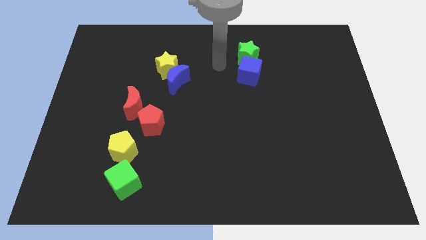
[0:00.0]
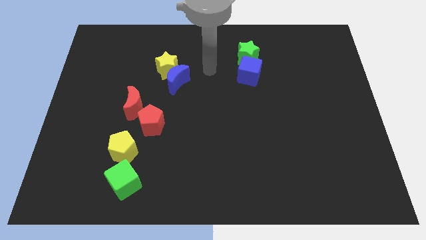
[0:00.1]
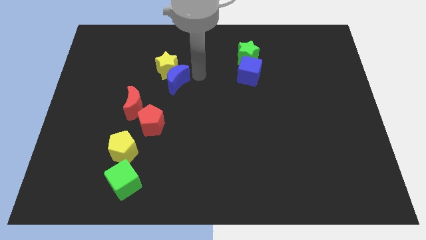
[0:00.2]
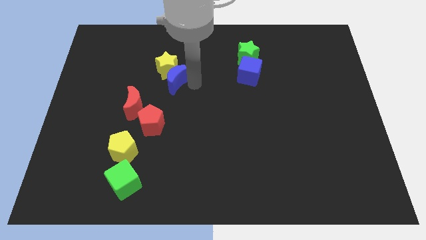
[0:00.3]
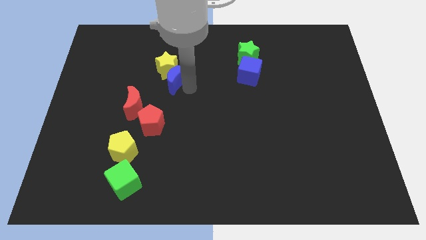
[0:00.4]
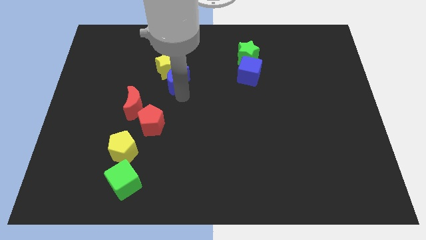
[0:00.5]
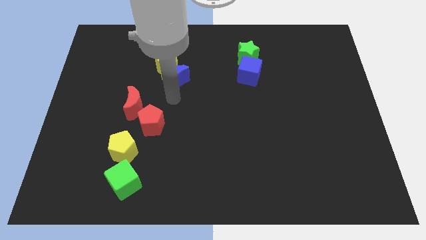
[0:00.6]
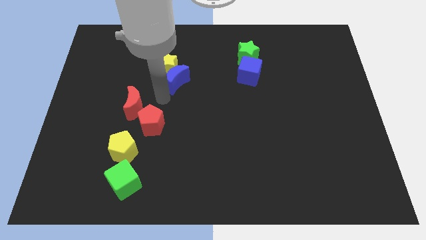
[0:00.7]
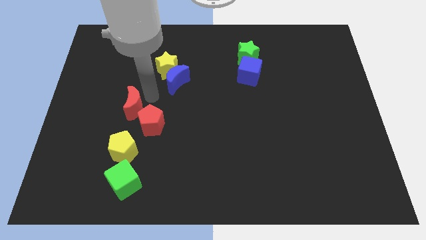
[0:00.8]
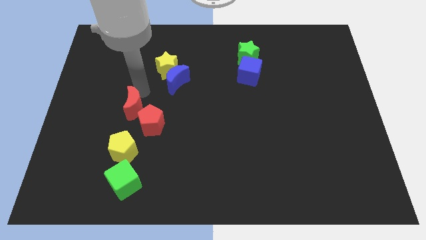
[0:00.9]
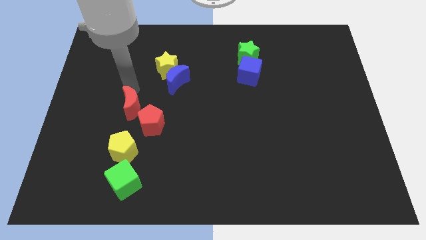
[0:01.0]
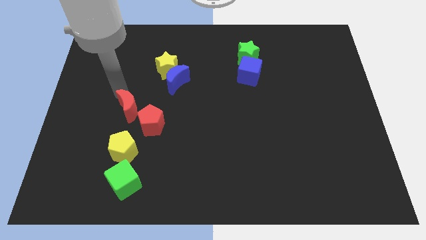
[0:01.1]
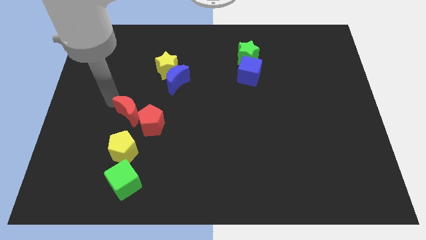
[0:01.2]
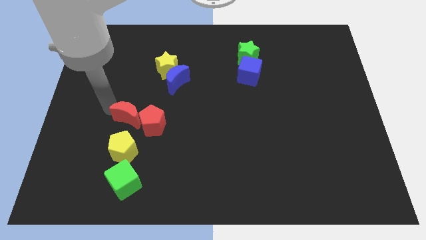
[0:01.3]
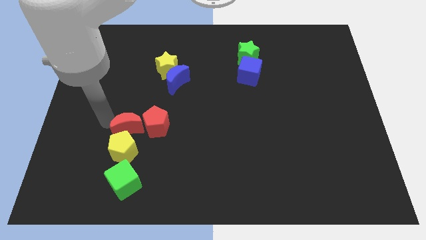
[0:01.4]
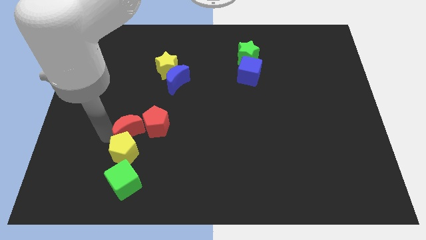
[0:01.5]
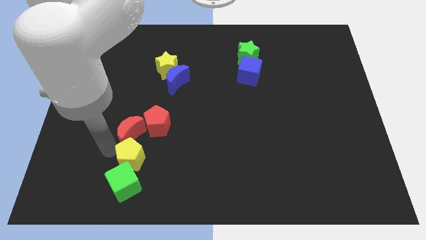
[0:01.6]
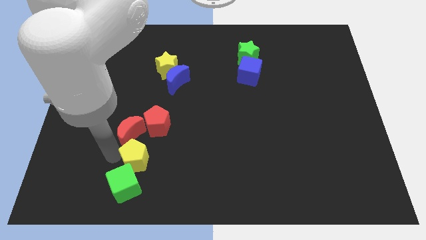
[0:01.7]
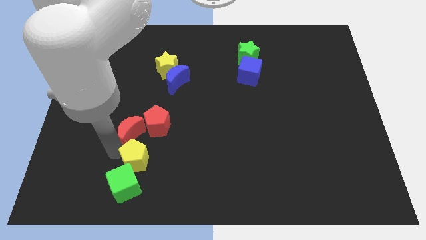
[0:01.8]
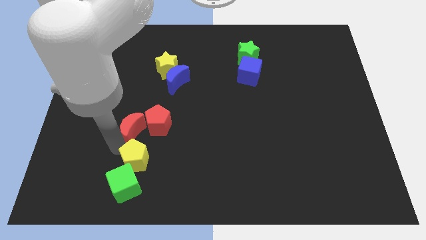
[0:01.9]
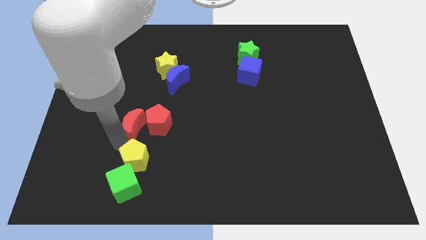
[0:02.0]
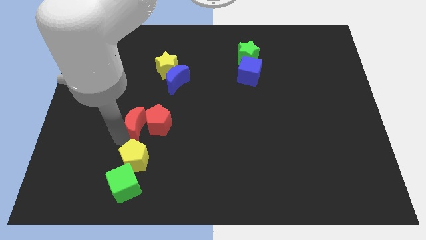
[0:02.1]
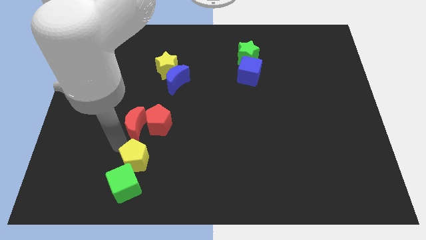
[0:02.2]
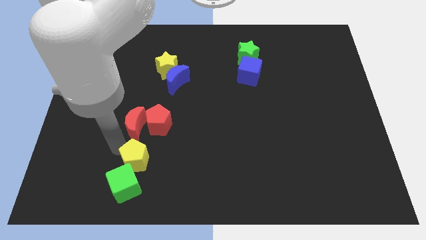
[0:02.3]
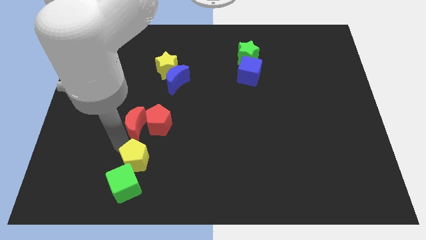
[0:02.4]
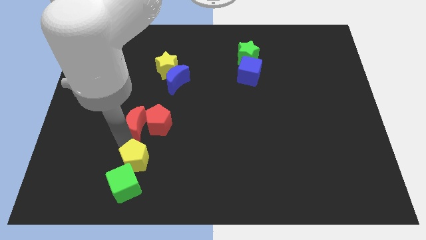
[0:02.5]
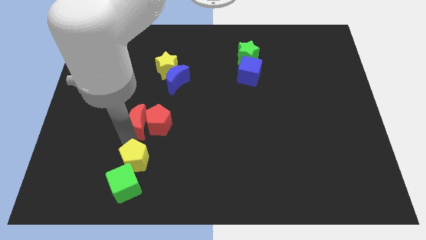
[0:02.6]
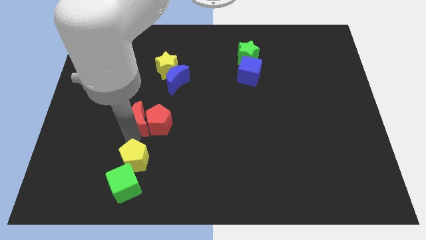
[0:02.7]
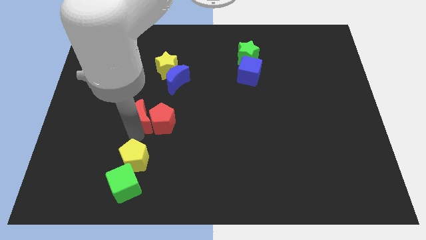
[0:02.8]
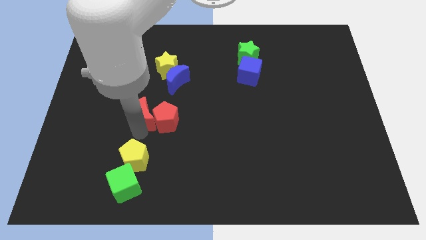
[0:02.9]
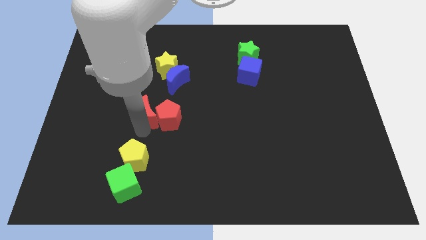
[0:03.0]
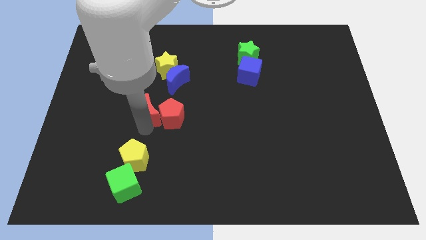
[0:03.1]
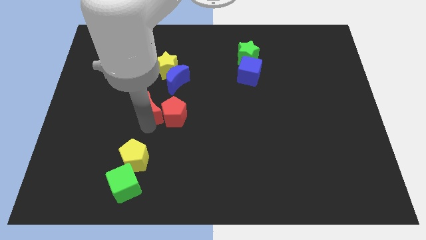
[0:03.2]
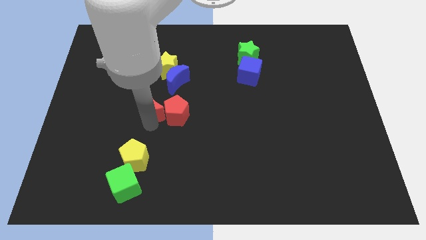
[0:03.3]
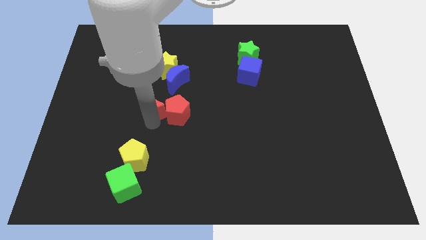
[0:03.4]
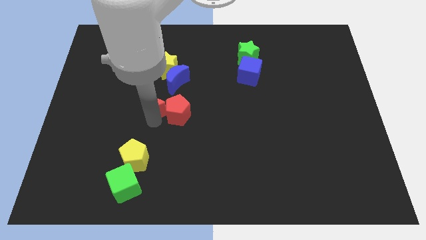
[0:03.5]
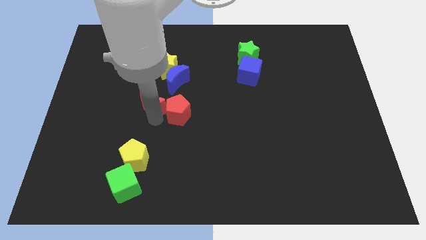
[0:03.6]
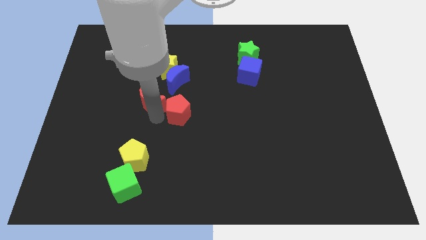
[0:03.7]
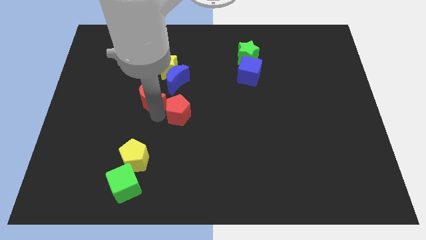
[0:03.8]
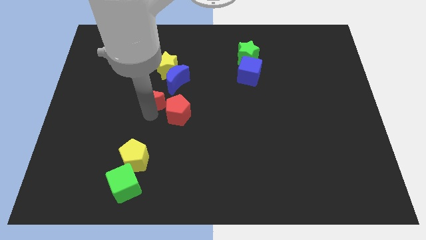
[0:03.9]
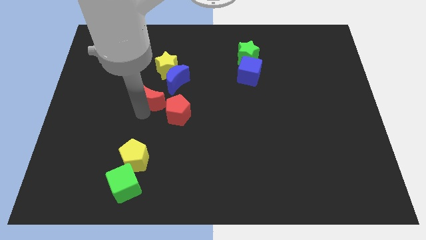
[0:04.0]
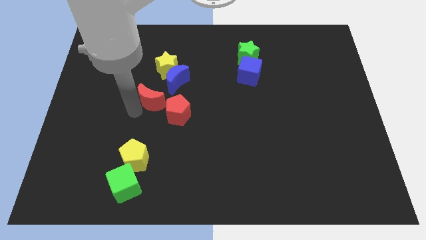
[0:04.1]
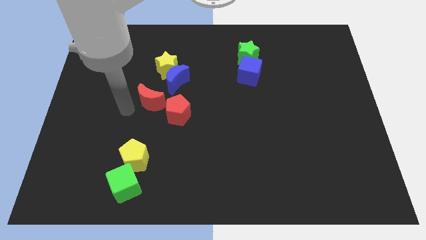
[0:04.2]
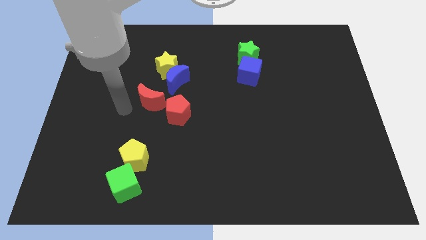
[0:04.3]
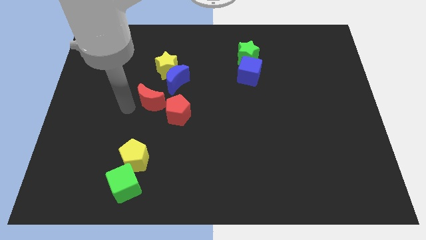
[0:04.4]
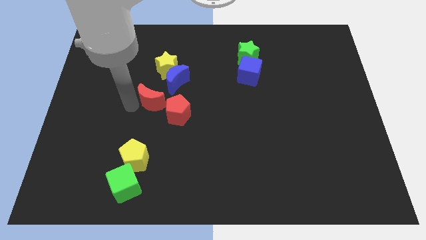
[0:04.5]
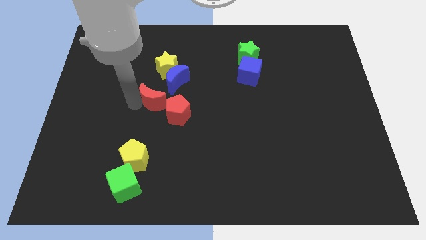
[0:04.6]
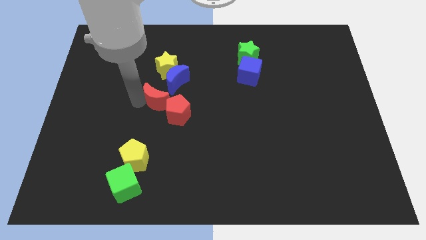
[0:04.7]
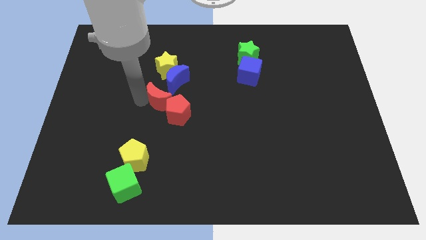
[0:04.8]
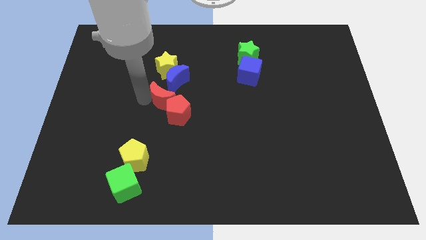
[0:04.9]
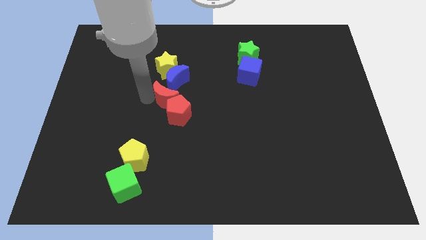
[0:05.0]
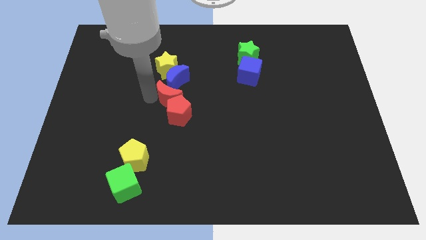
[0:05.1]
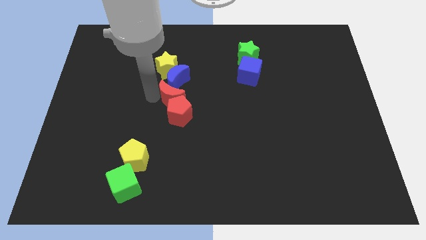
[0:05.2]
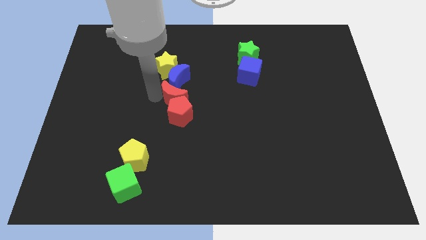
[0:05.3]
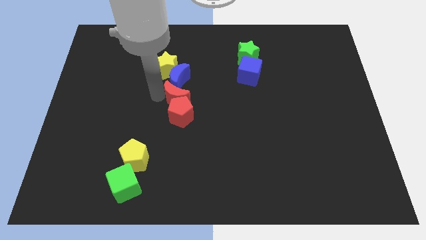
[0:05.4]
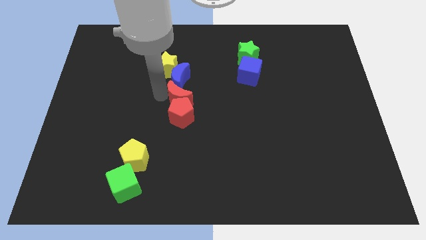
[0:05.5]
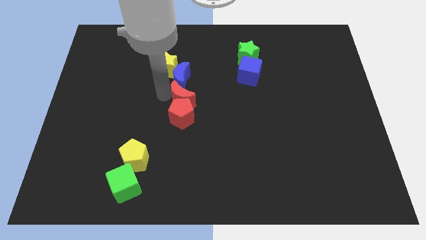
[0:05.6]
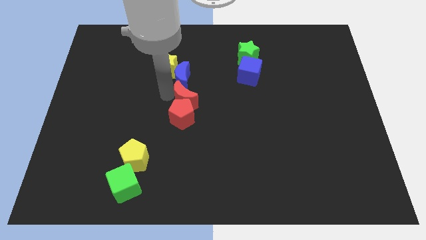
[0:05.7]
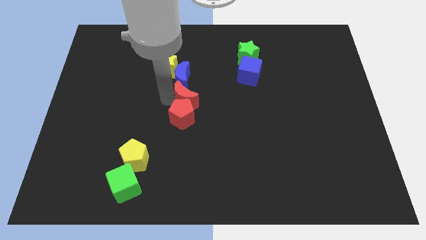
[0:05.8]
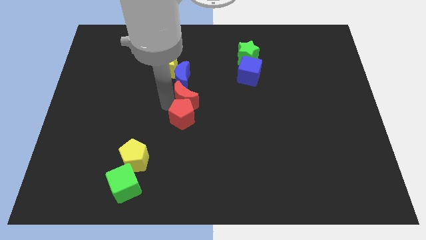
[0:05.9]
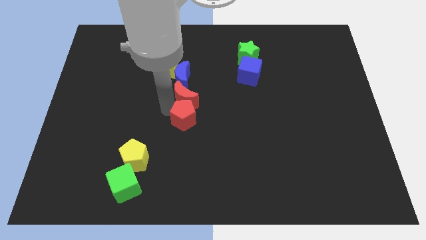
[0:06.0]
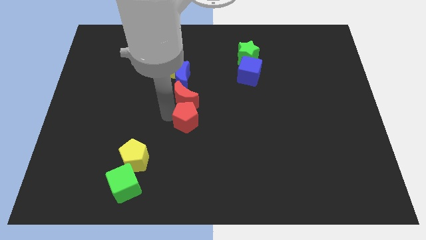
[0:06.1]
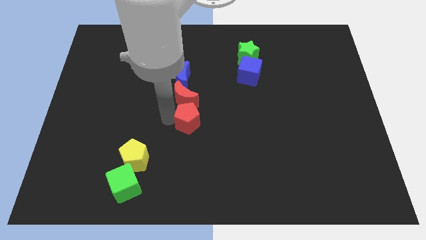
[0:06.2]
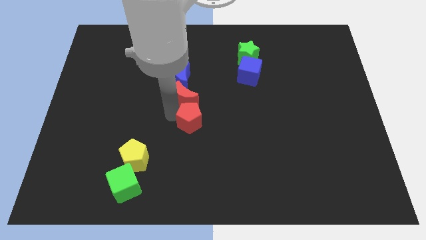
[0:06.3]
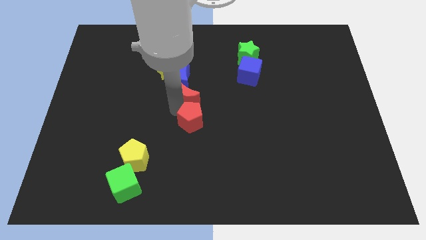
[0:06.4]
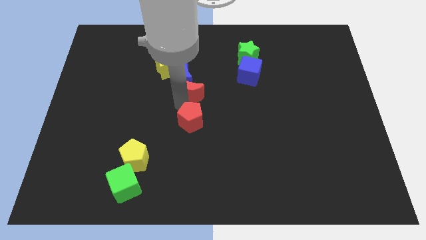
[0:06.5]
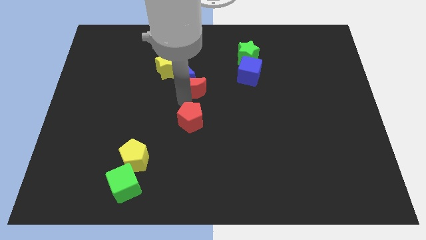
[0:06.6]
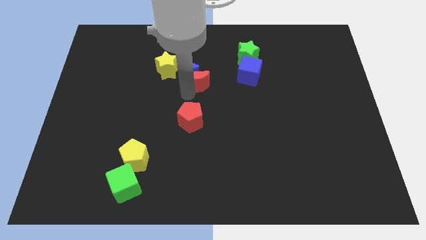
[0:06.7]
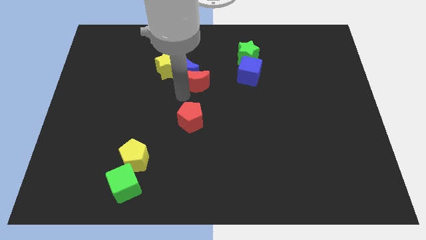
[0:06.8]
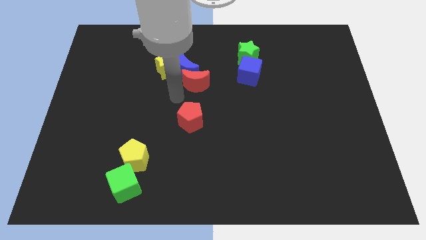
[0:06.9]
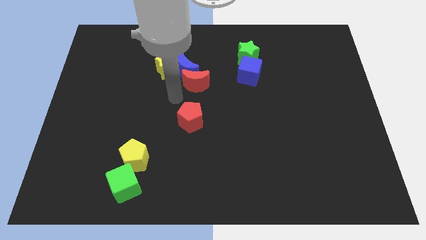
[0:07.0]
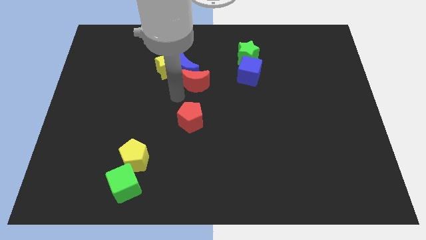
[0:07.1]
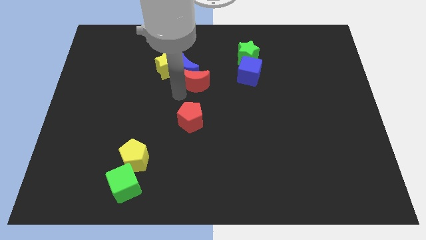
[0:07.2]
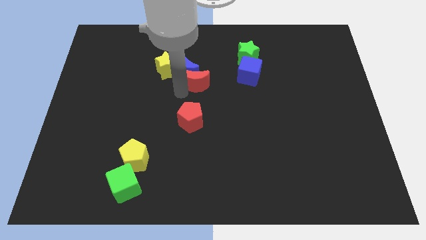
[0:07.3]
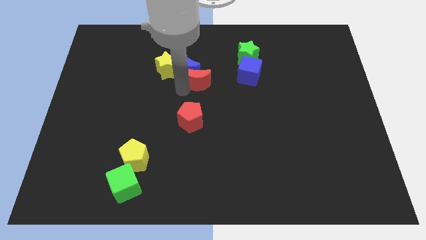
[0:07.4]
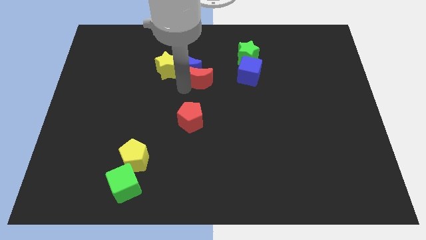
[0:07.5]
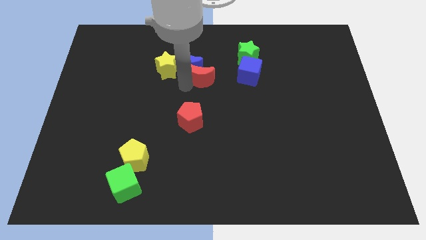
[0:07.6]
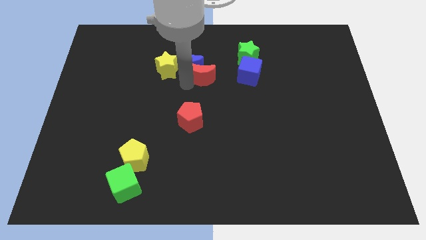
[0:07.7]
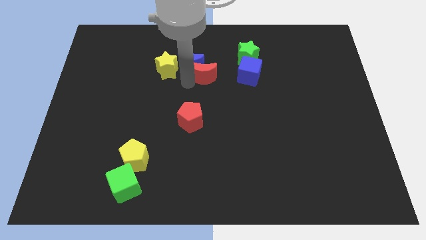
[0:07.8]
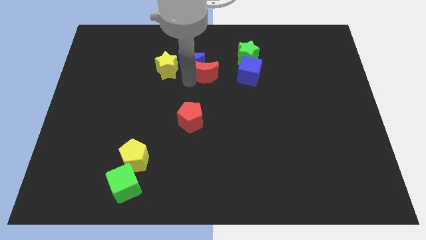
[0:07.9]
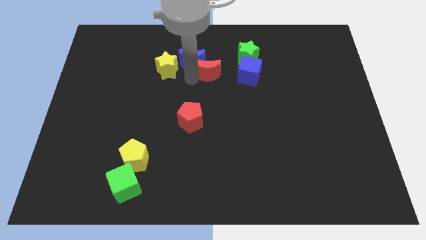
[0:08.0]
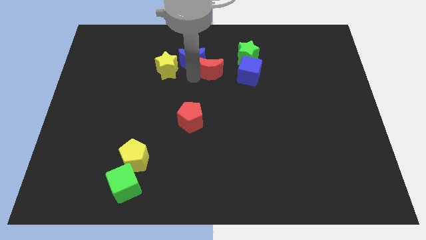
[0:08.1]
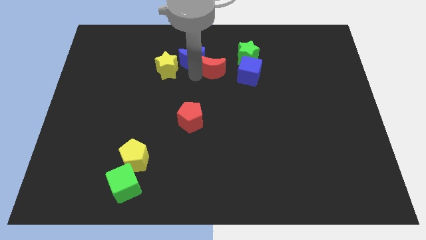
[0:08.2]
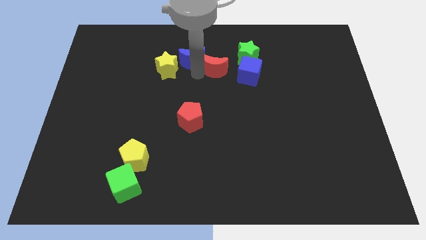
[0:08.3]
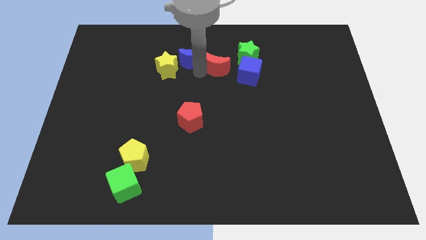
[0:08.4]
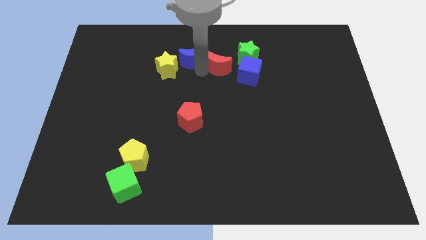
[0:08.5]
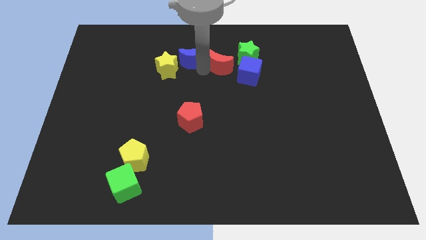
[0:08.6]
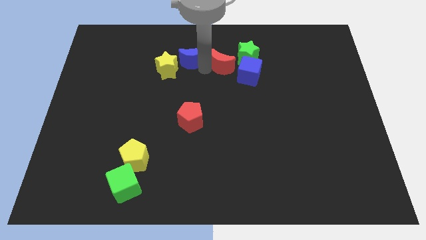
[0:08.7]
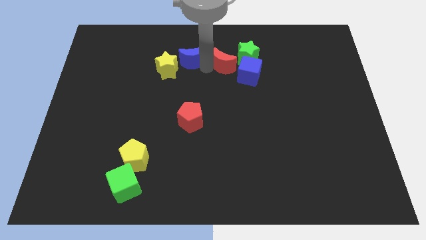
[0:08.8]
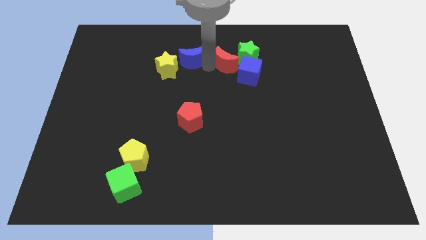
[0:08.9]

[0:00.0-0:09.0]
move the red moon towards the green star
